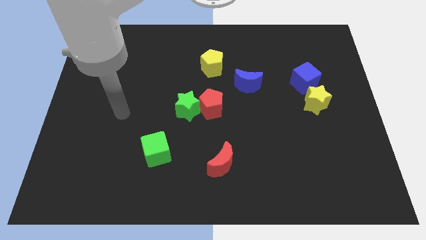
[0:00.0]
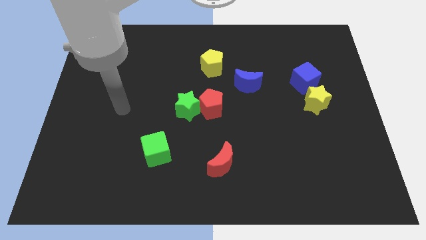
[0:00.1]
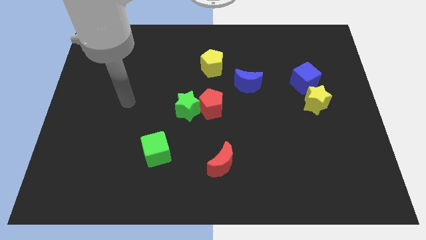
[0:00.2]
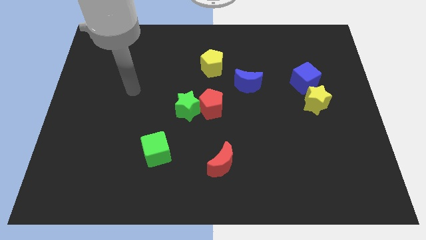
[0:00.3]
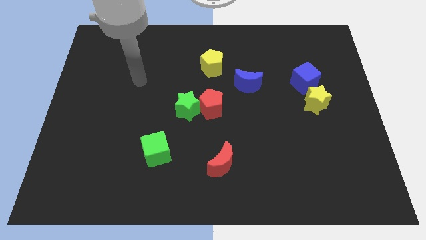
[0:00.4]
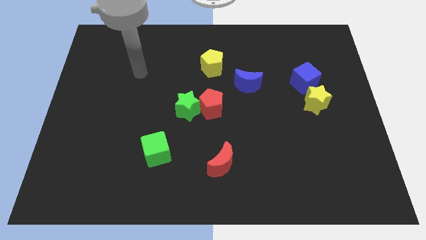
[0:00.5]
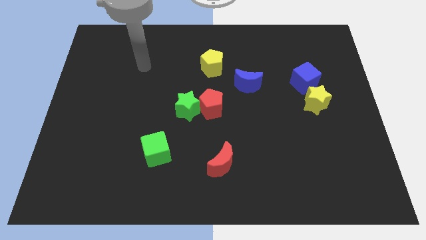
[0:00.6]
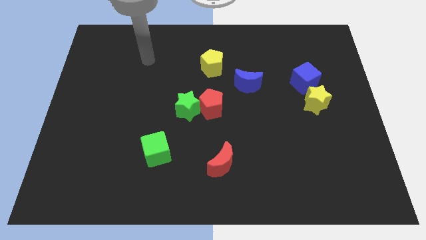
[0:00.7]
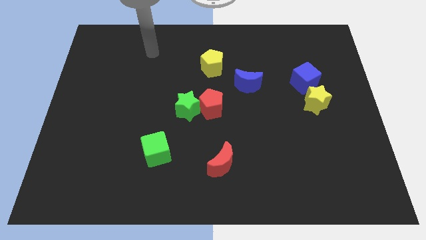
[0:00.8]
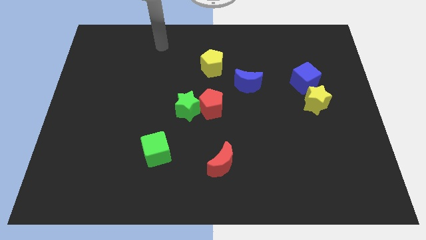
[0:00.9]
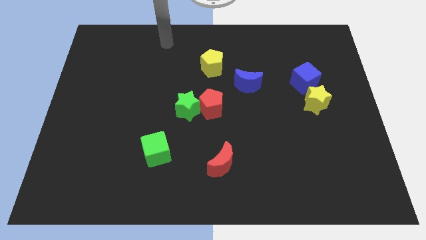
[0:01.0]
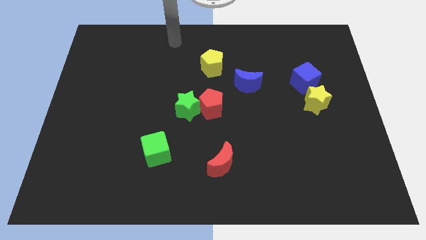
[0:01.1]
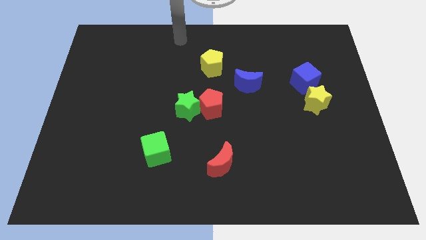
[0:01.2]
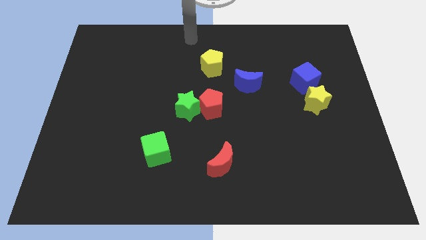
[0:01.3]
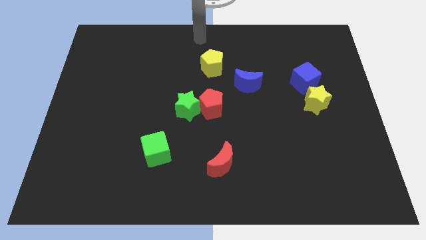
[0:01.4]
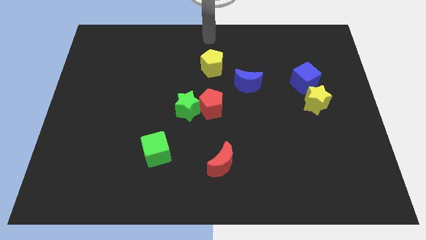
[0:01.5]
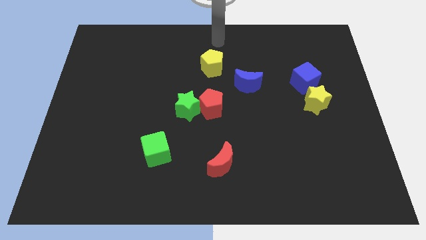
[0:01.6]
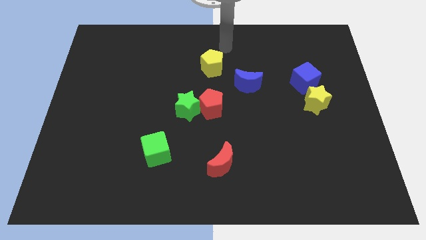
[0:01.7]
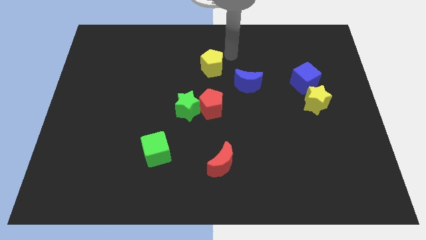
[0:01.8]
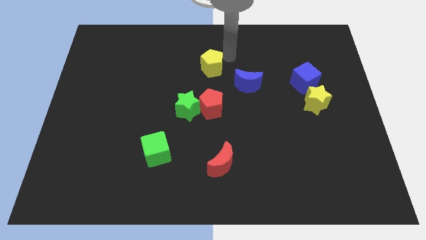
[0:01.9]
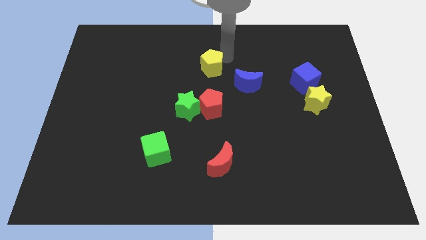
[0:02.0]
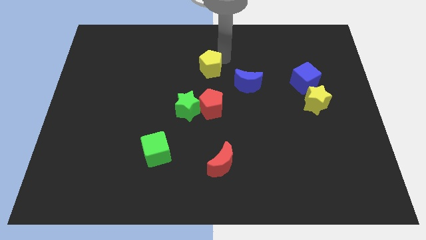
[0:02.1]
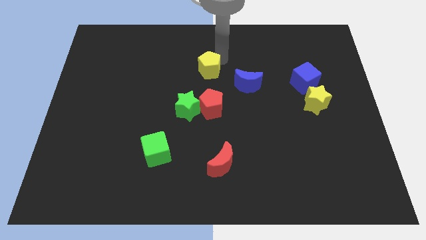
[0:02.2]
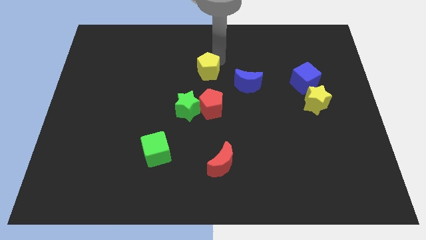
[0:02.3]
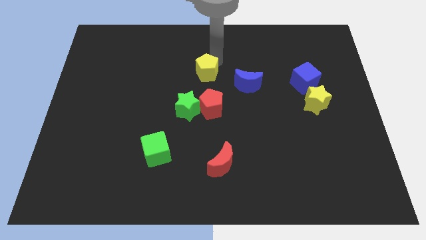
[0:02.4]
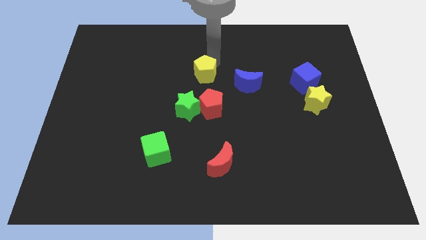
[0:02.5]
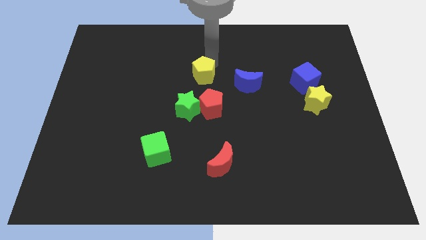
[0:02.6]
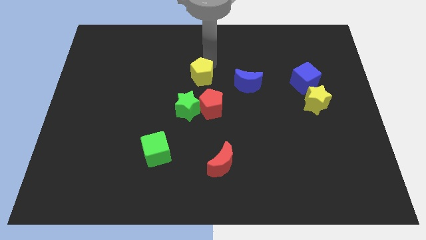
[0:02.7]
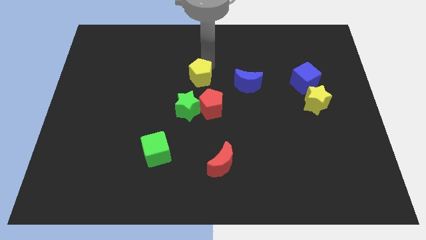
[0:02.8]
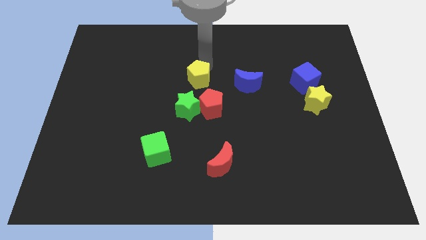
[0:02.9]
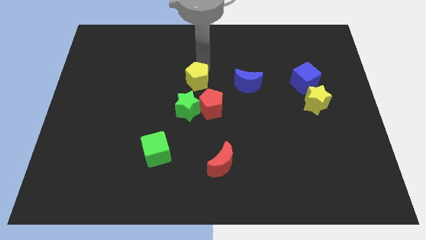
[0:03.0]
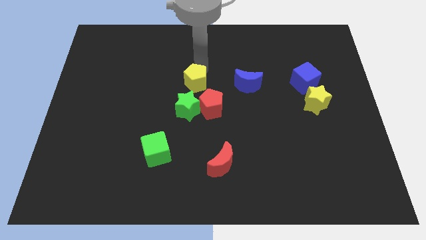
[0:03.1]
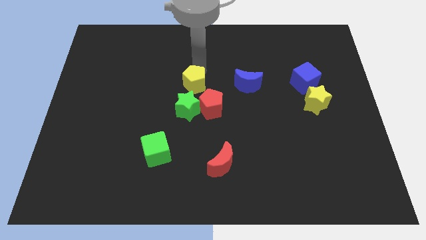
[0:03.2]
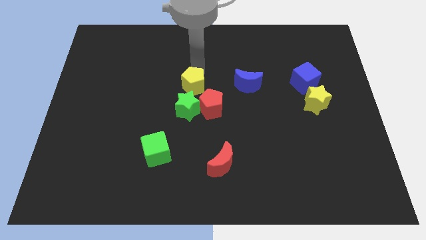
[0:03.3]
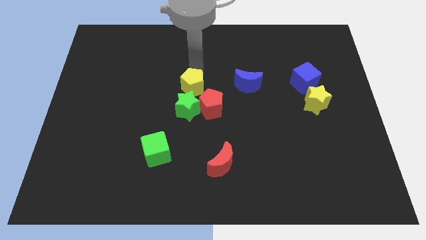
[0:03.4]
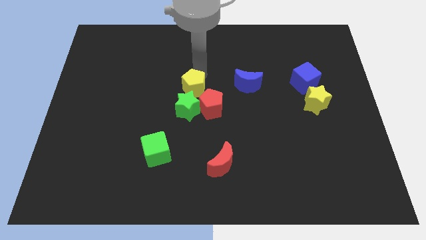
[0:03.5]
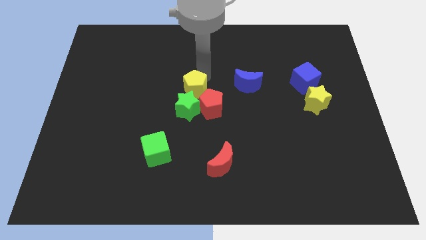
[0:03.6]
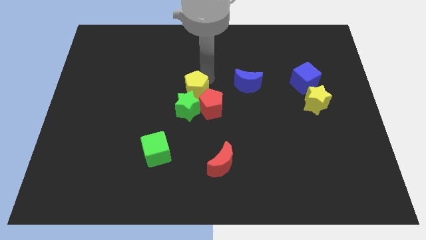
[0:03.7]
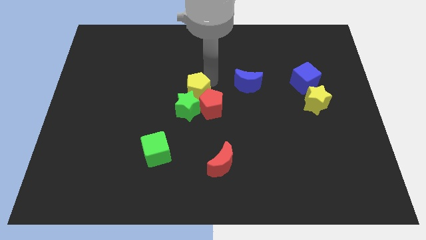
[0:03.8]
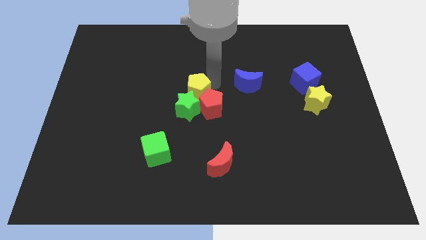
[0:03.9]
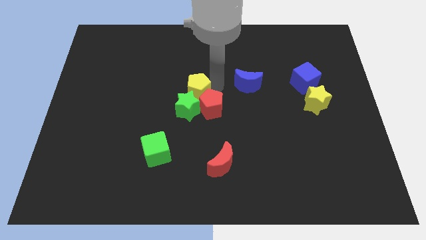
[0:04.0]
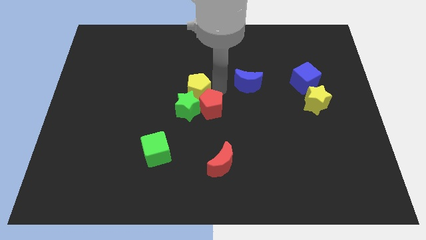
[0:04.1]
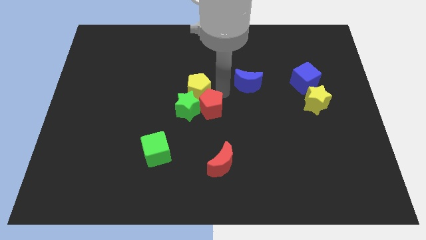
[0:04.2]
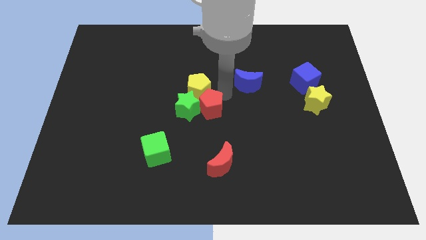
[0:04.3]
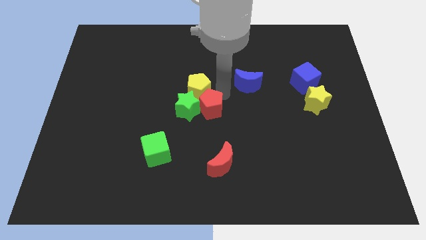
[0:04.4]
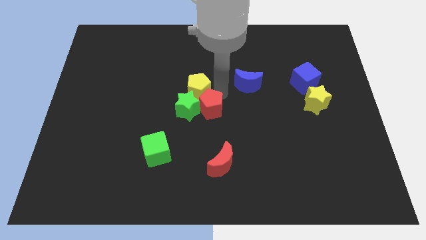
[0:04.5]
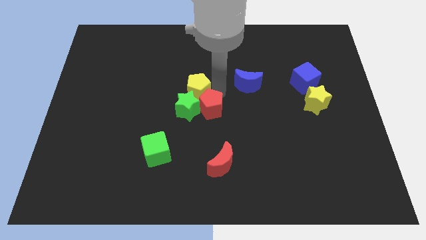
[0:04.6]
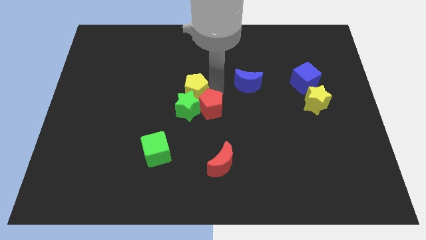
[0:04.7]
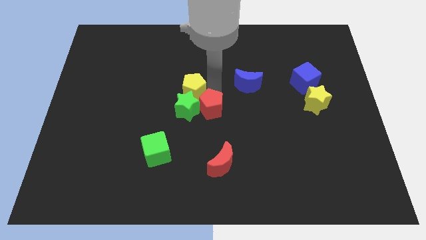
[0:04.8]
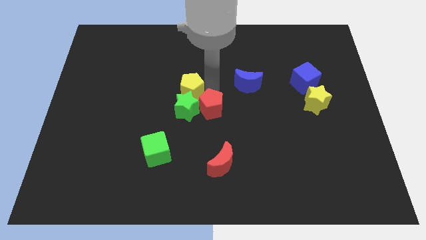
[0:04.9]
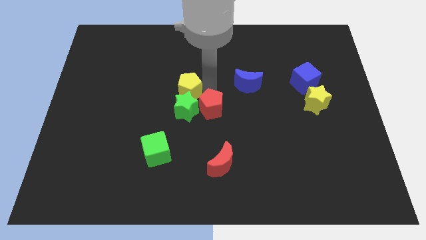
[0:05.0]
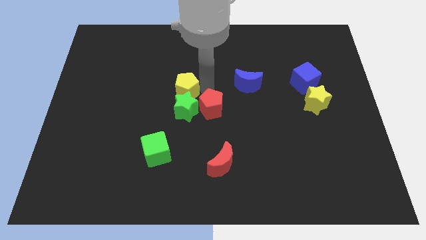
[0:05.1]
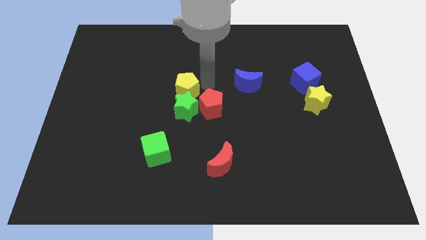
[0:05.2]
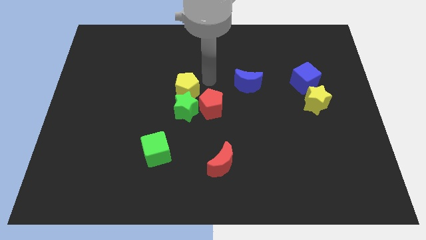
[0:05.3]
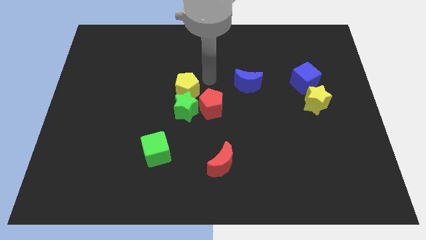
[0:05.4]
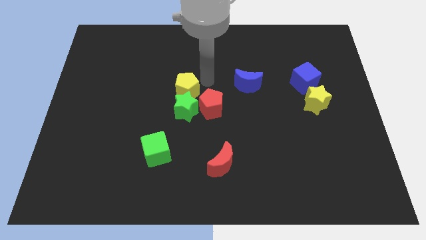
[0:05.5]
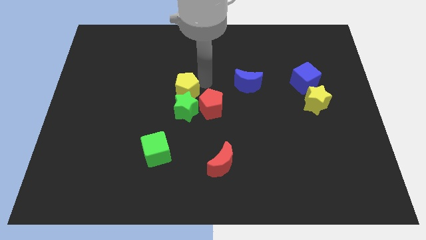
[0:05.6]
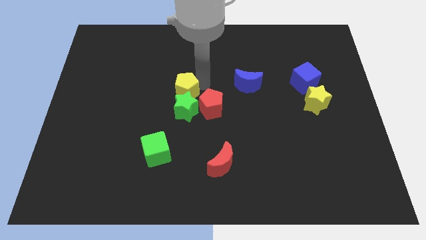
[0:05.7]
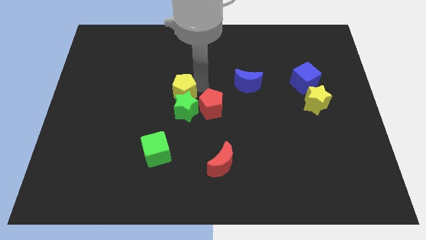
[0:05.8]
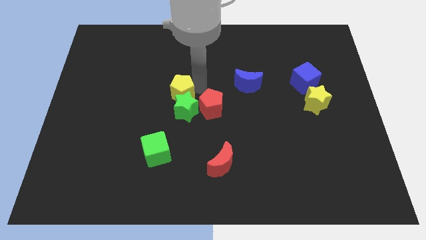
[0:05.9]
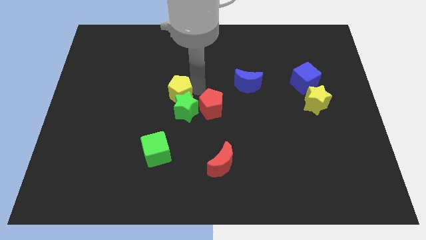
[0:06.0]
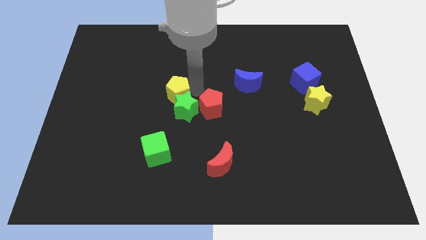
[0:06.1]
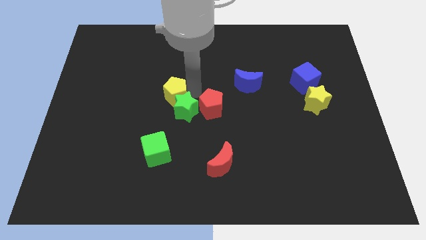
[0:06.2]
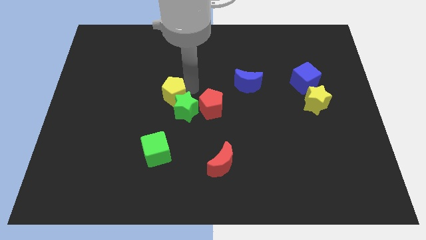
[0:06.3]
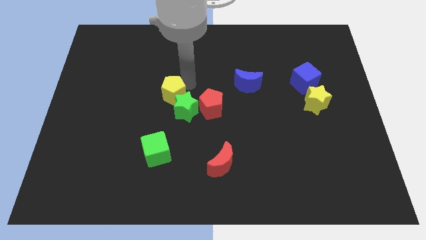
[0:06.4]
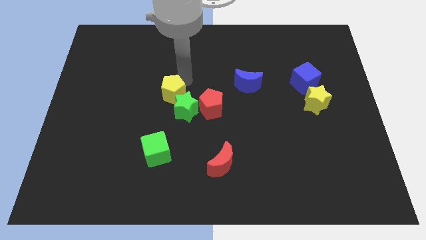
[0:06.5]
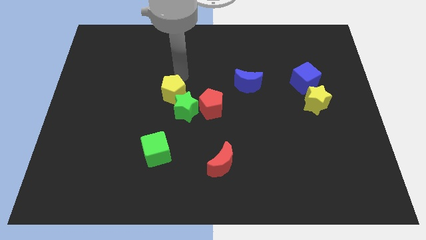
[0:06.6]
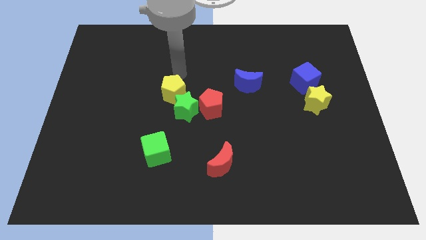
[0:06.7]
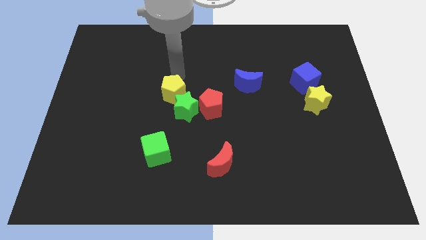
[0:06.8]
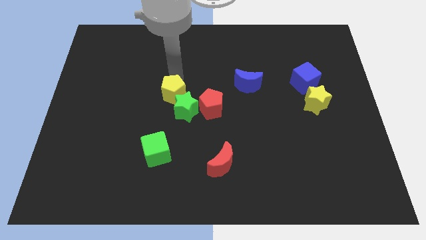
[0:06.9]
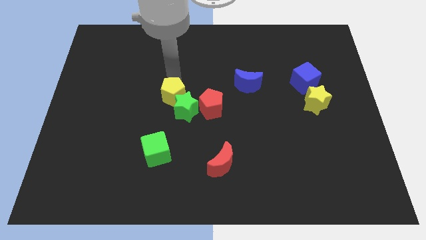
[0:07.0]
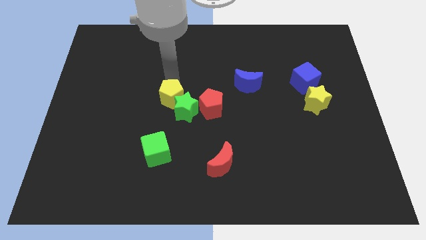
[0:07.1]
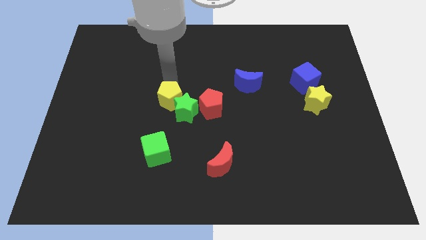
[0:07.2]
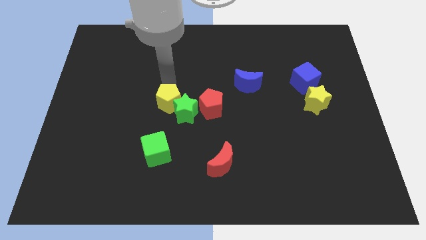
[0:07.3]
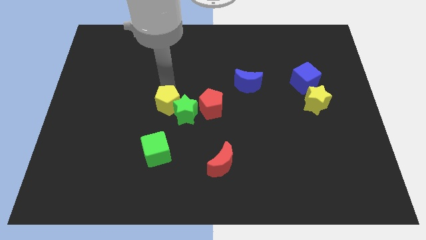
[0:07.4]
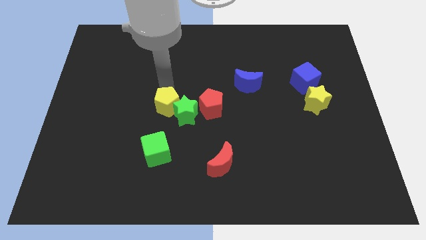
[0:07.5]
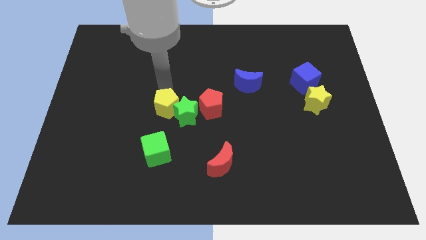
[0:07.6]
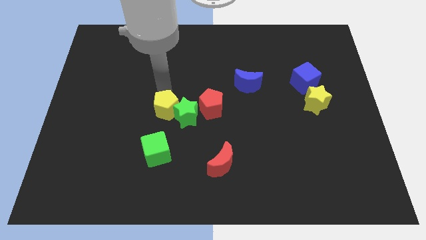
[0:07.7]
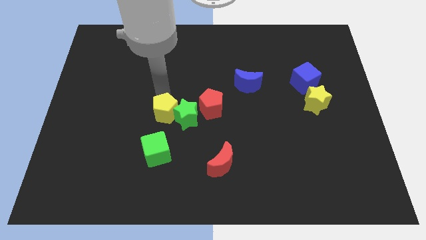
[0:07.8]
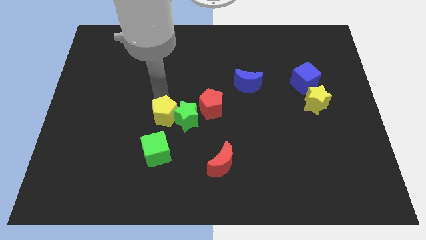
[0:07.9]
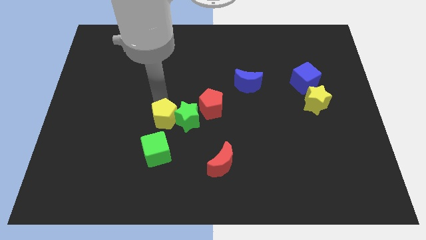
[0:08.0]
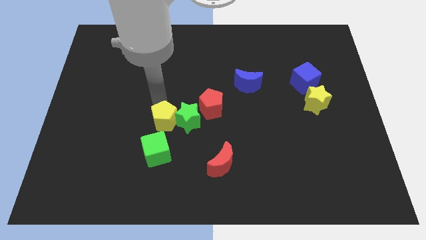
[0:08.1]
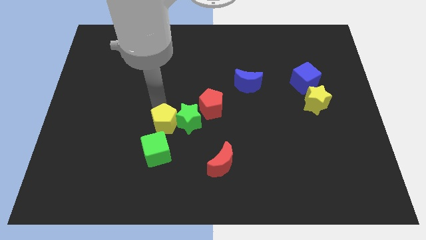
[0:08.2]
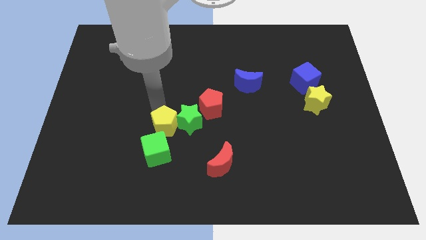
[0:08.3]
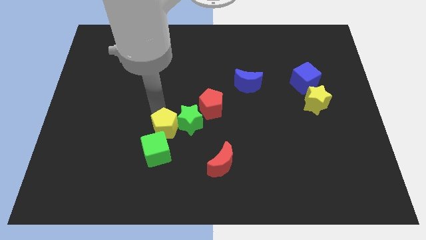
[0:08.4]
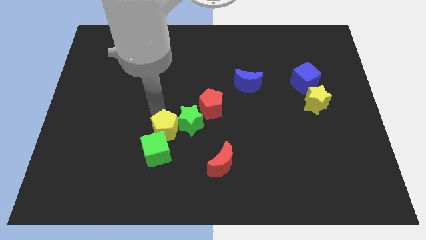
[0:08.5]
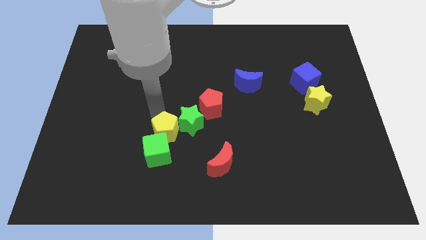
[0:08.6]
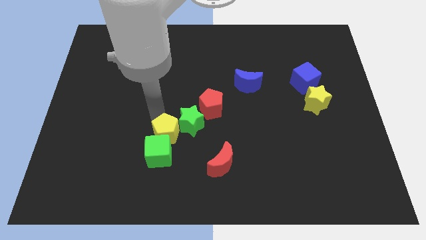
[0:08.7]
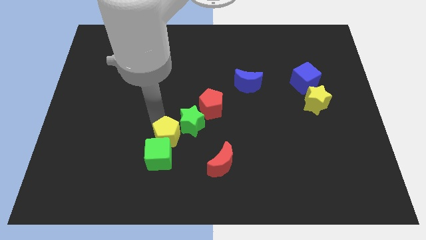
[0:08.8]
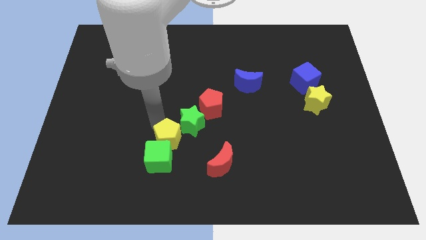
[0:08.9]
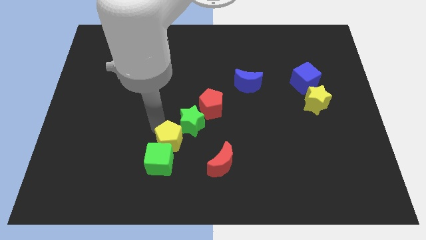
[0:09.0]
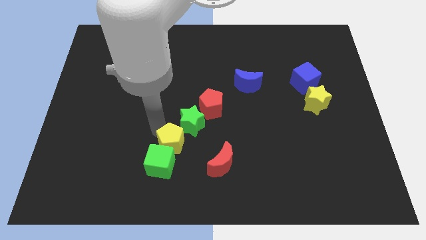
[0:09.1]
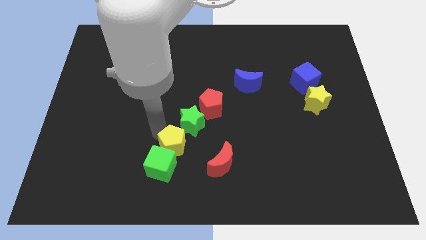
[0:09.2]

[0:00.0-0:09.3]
put the yellow pentagon left of the red moon
